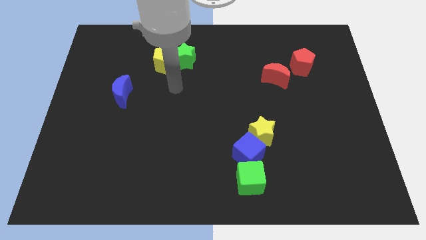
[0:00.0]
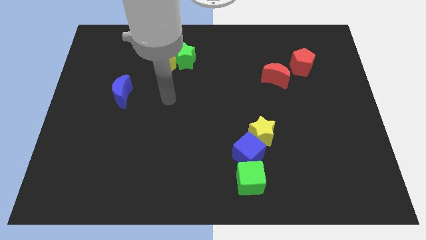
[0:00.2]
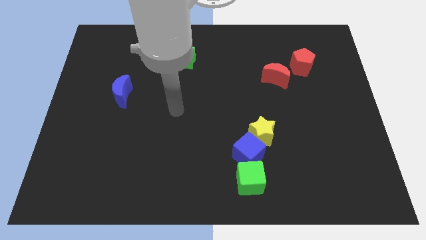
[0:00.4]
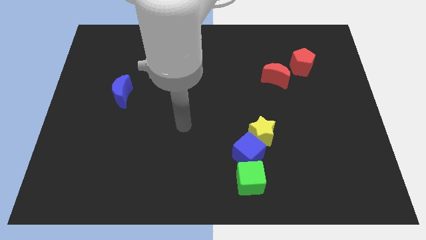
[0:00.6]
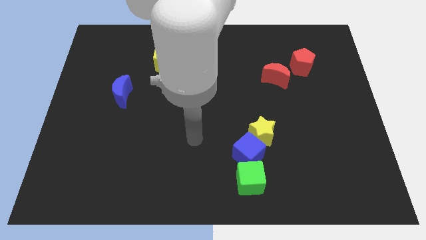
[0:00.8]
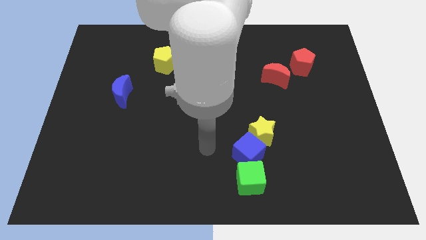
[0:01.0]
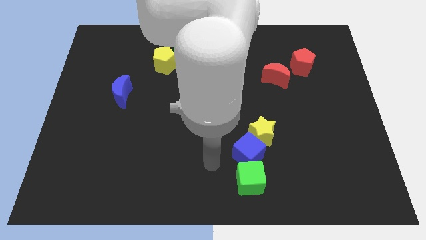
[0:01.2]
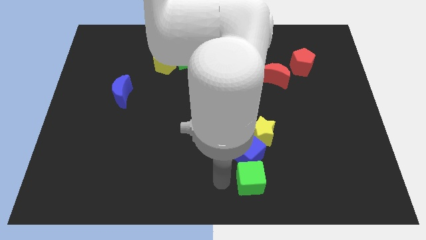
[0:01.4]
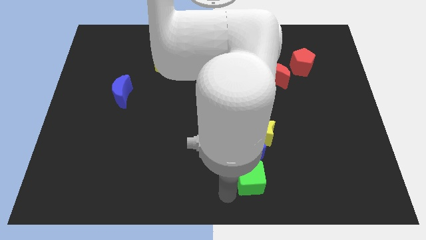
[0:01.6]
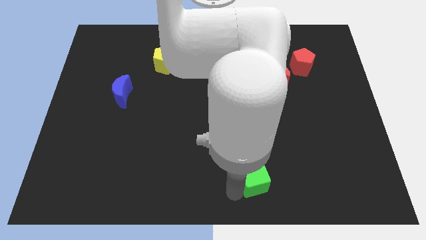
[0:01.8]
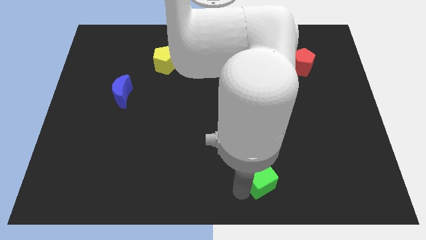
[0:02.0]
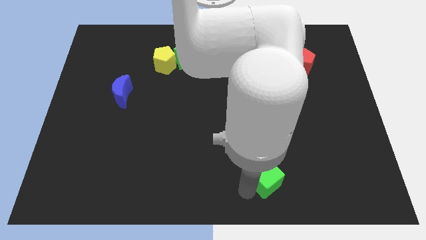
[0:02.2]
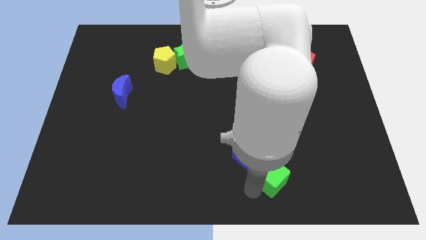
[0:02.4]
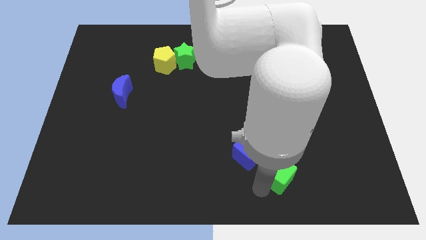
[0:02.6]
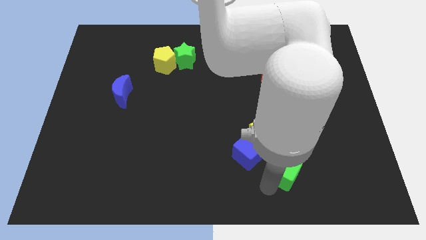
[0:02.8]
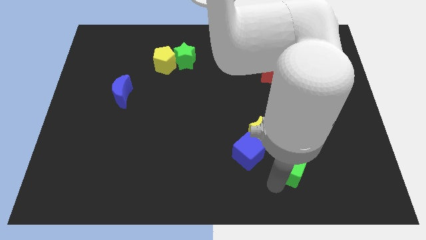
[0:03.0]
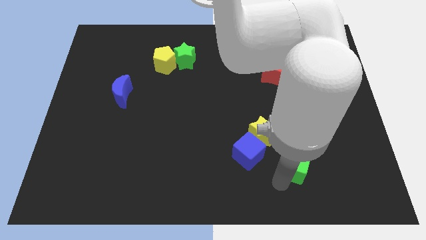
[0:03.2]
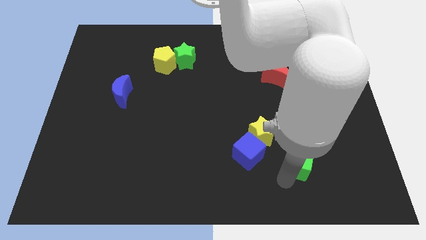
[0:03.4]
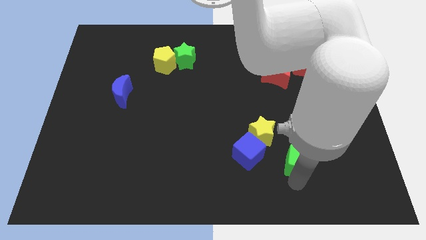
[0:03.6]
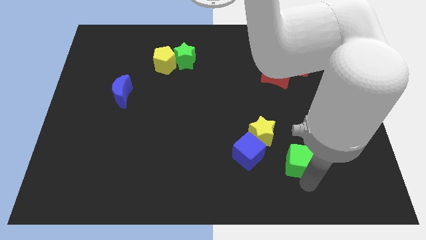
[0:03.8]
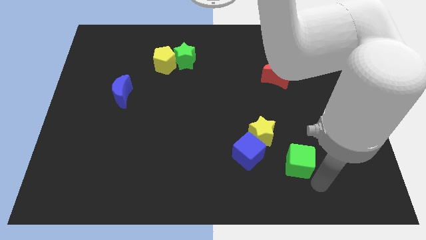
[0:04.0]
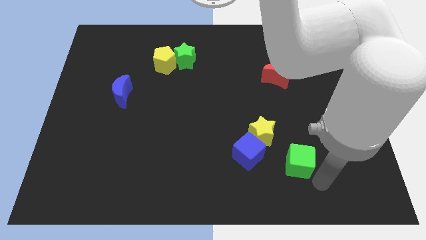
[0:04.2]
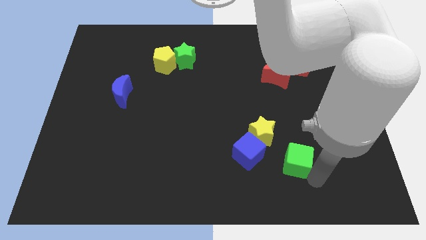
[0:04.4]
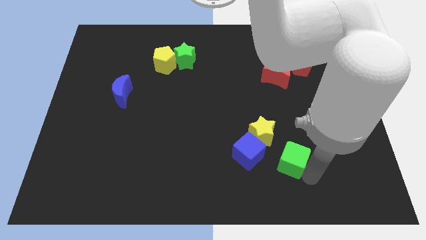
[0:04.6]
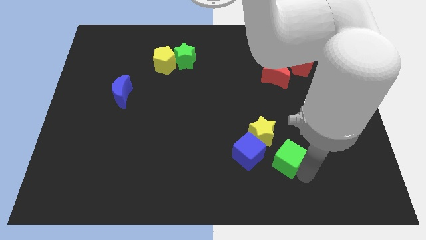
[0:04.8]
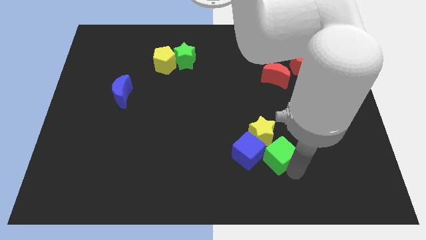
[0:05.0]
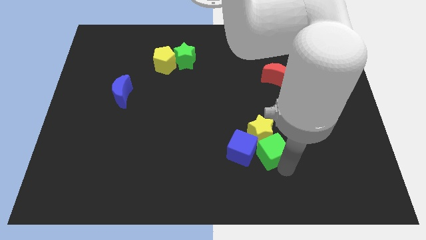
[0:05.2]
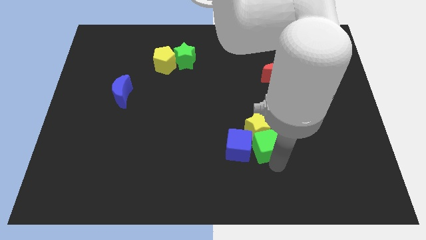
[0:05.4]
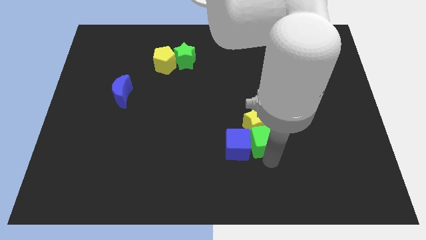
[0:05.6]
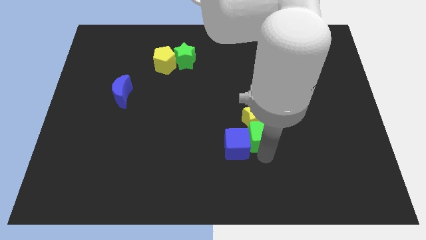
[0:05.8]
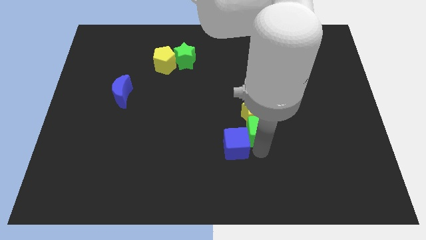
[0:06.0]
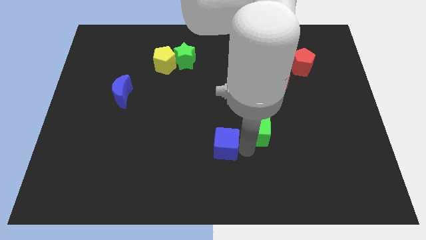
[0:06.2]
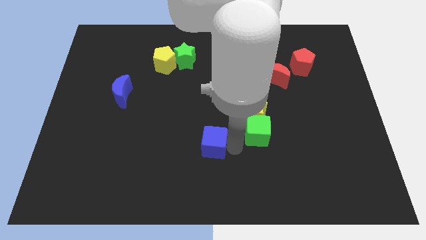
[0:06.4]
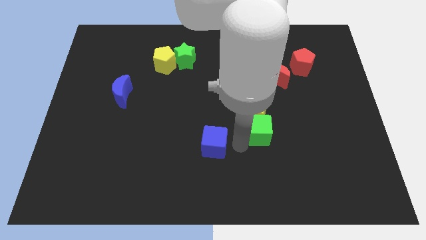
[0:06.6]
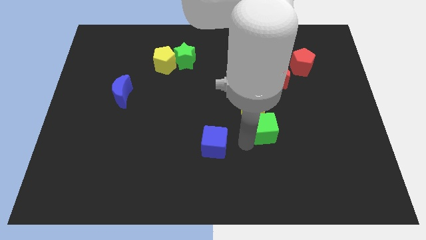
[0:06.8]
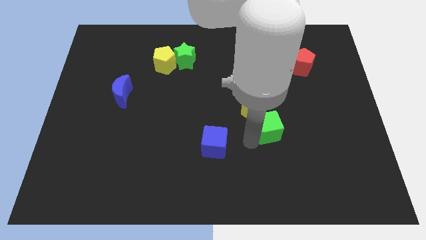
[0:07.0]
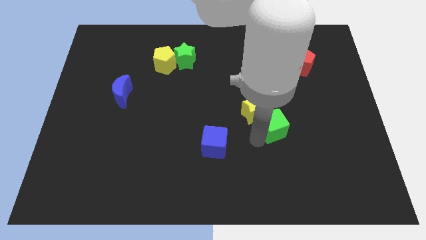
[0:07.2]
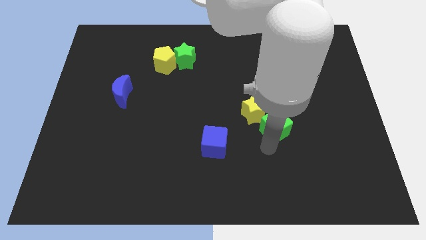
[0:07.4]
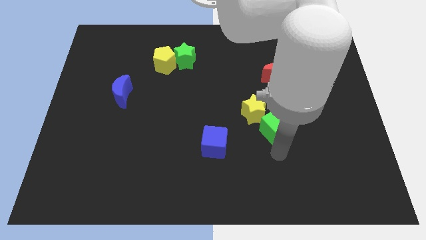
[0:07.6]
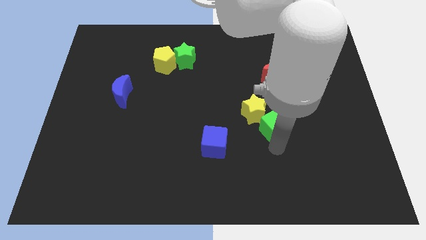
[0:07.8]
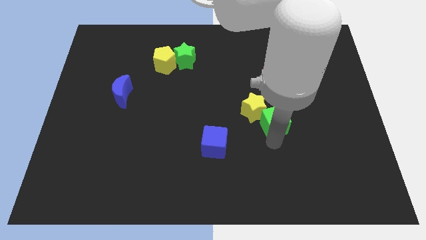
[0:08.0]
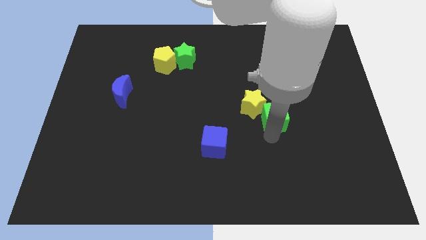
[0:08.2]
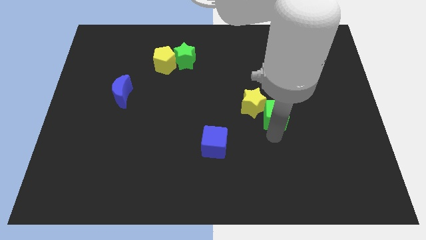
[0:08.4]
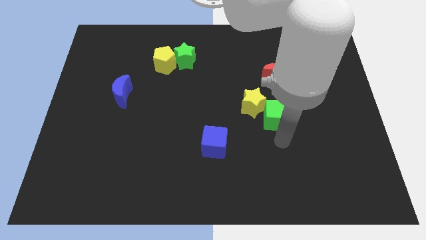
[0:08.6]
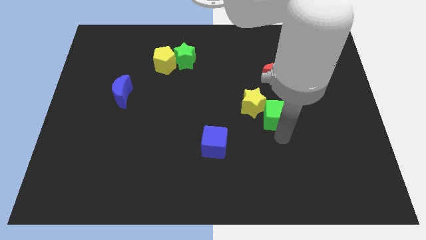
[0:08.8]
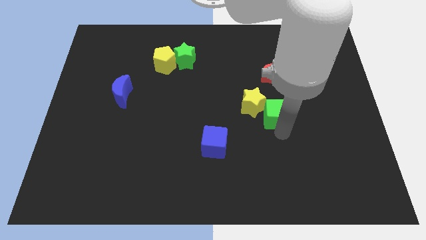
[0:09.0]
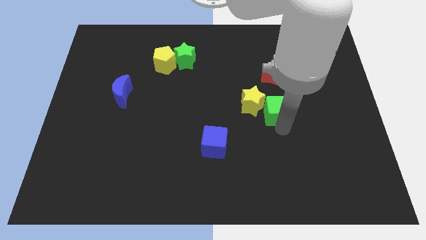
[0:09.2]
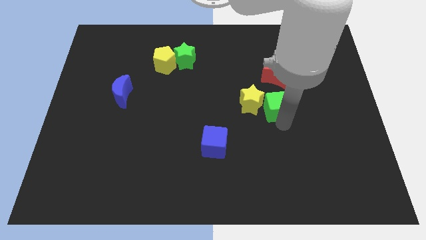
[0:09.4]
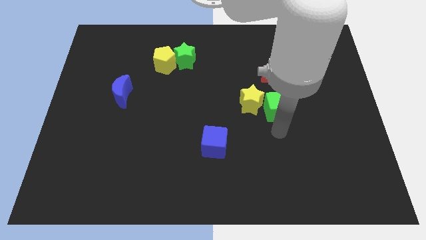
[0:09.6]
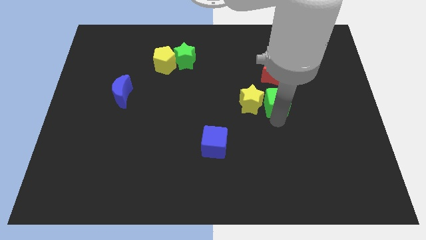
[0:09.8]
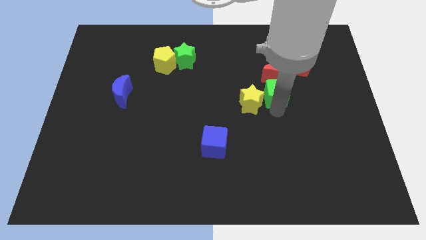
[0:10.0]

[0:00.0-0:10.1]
put the green cube close to the red moon

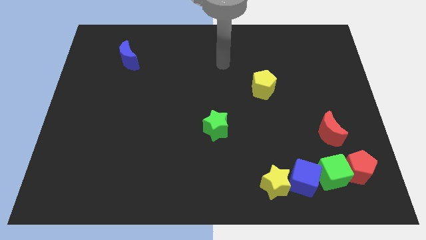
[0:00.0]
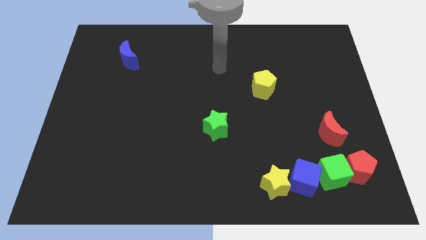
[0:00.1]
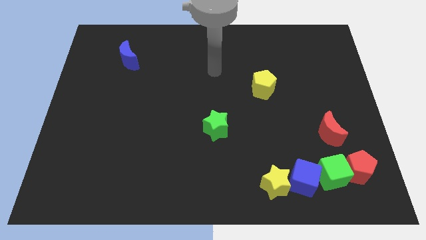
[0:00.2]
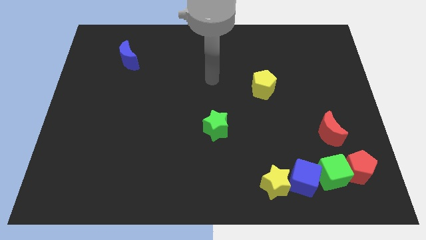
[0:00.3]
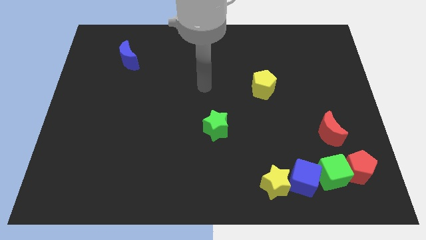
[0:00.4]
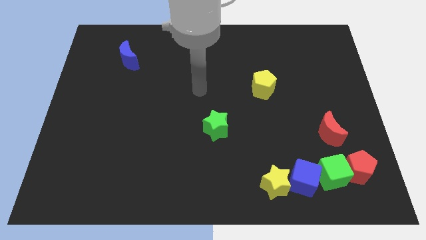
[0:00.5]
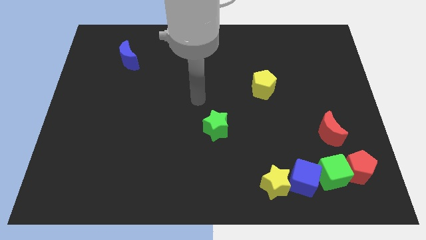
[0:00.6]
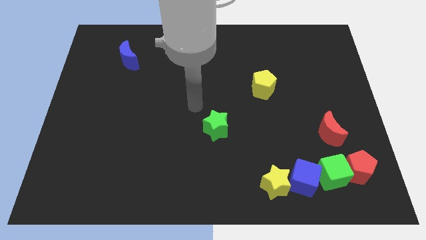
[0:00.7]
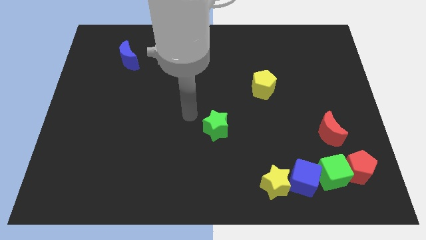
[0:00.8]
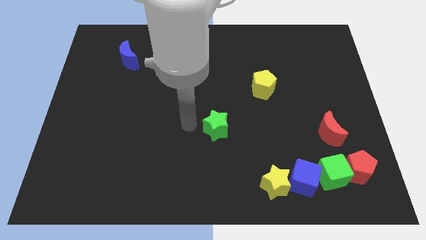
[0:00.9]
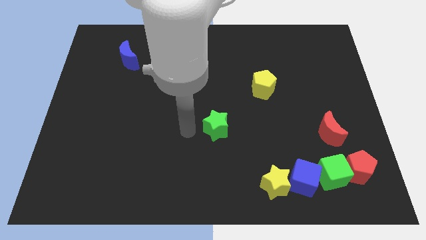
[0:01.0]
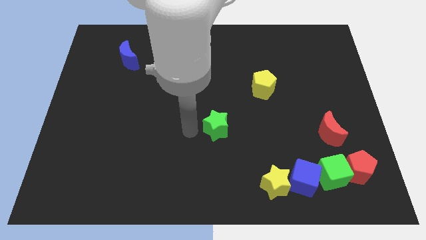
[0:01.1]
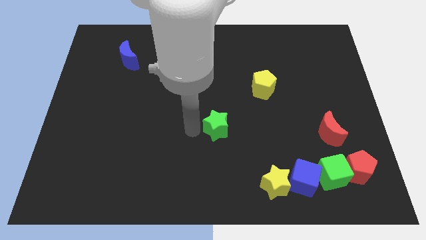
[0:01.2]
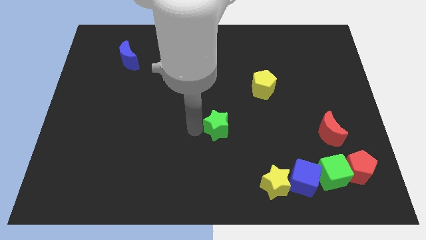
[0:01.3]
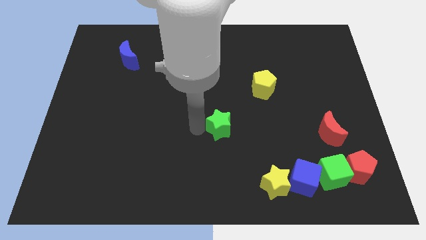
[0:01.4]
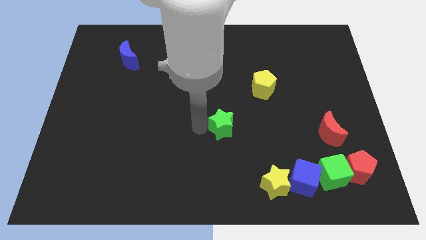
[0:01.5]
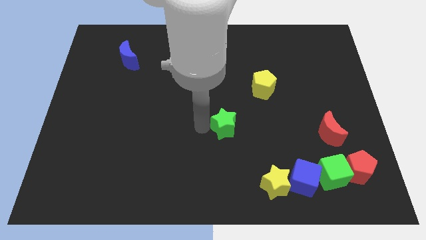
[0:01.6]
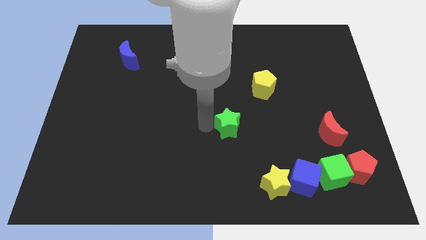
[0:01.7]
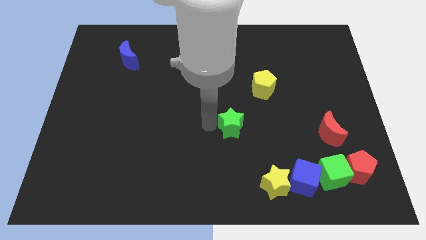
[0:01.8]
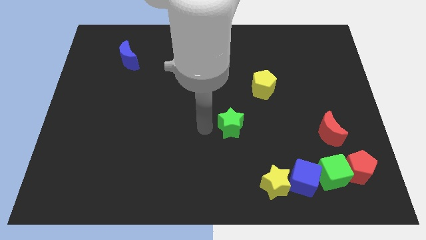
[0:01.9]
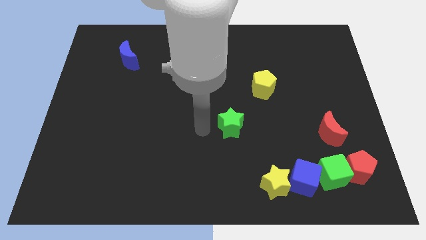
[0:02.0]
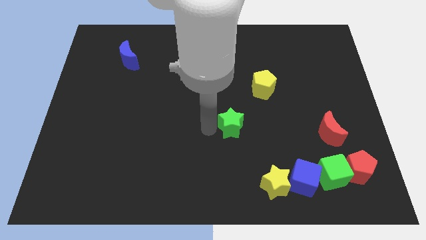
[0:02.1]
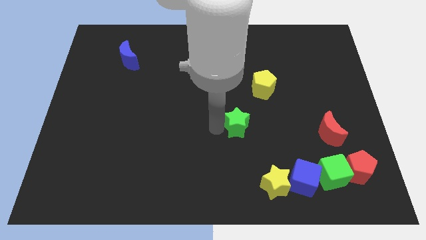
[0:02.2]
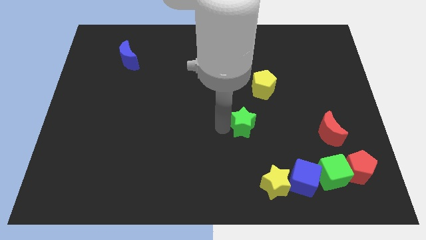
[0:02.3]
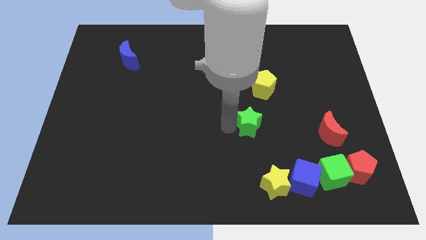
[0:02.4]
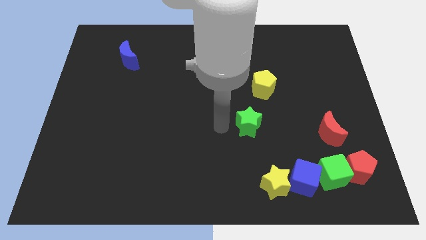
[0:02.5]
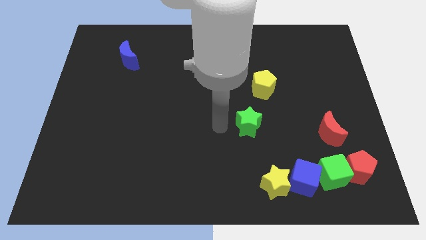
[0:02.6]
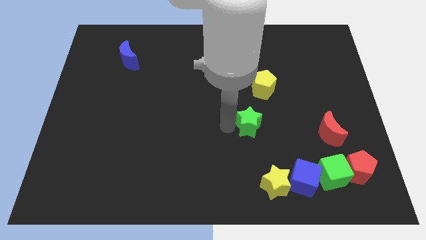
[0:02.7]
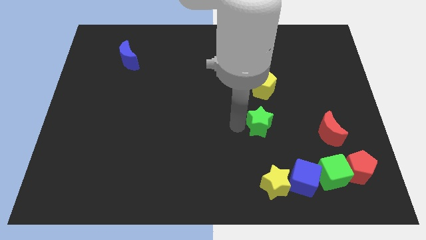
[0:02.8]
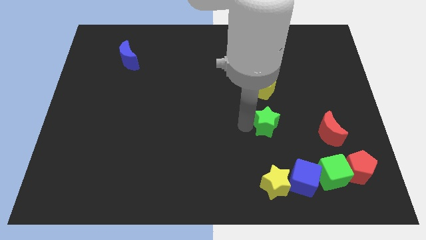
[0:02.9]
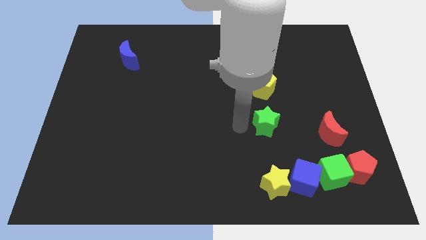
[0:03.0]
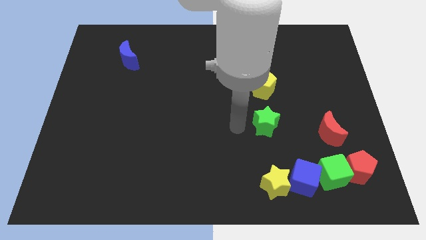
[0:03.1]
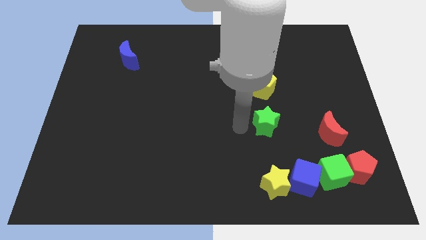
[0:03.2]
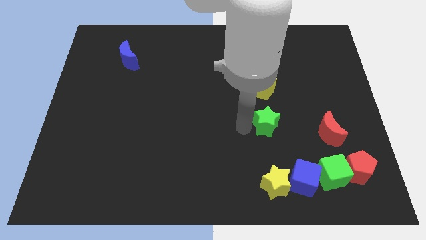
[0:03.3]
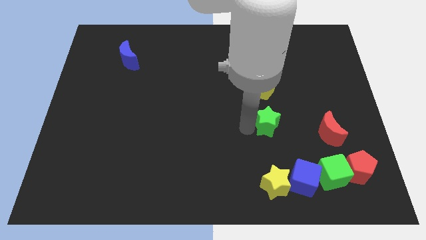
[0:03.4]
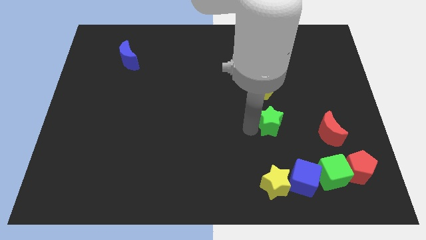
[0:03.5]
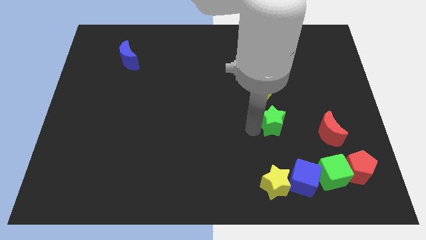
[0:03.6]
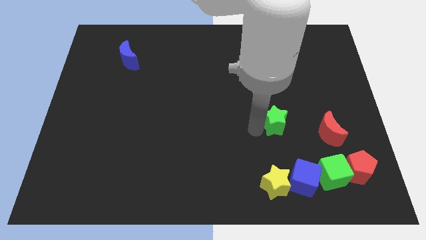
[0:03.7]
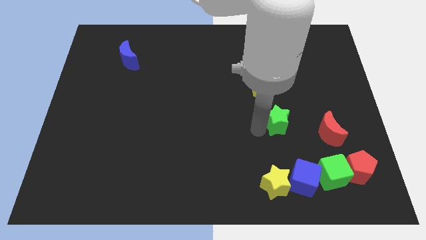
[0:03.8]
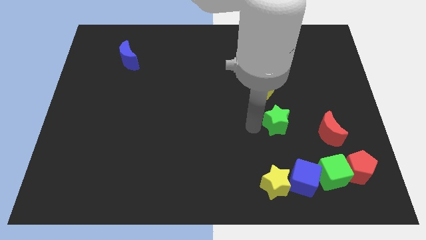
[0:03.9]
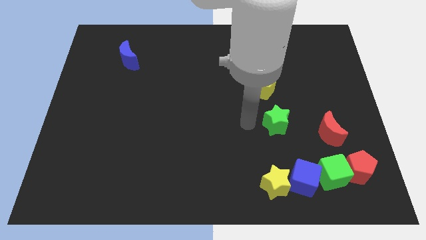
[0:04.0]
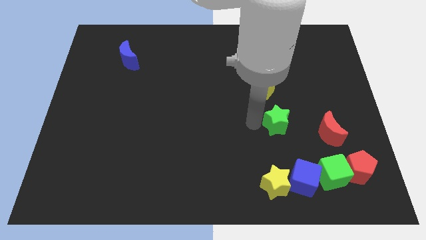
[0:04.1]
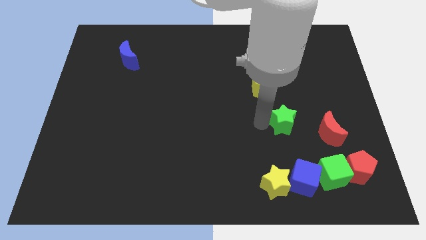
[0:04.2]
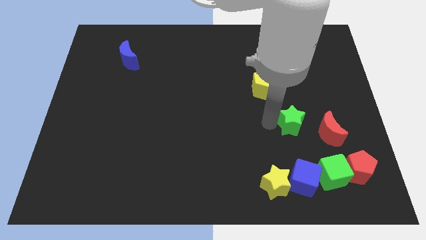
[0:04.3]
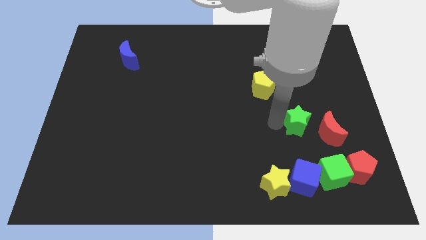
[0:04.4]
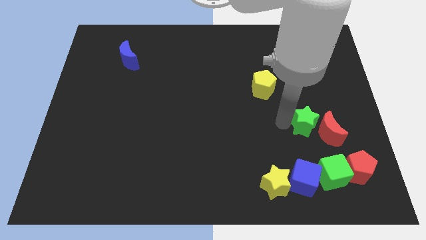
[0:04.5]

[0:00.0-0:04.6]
move the green star next to the red moon
